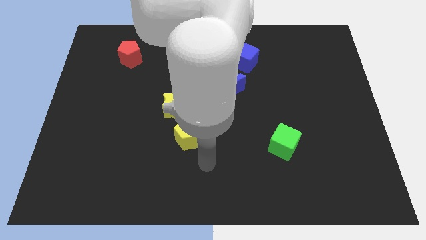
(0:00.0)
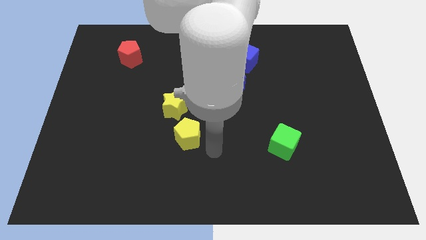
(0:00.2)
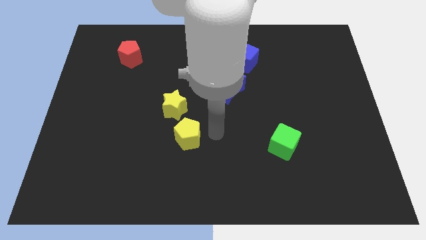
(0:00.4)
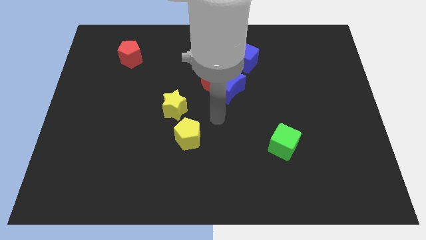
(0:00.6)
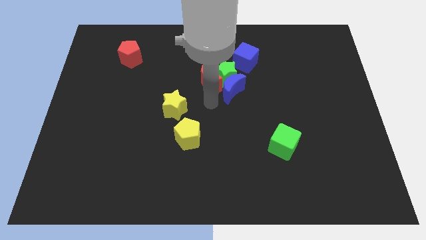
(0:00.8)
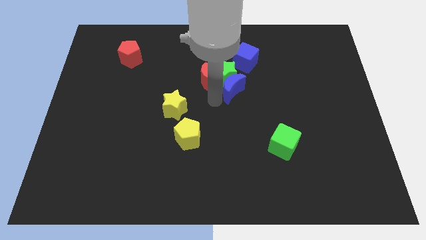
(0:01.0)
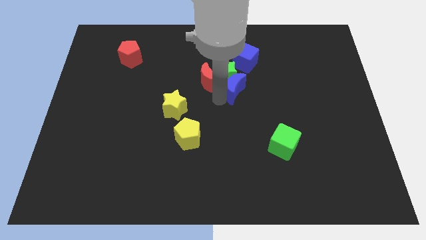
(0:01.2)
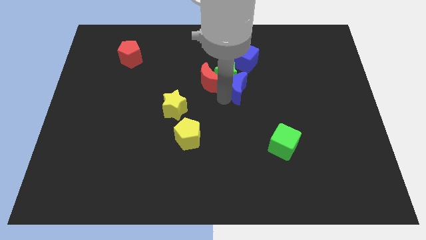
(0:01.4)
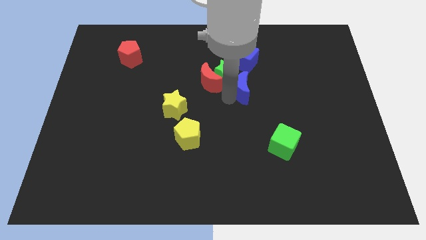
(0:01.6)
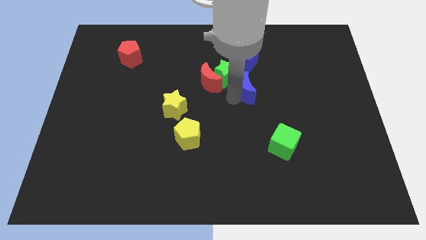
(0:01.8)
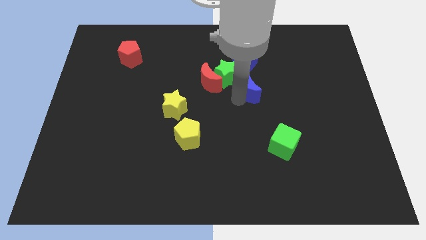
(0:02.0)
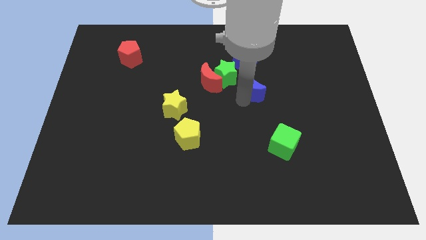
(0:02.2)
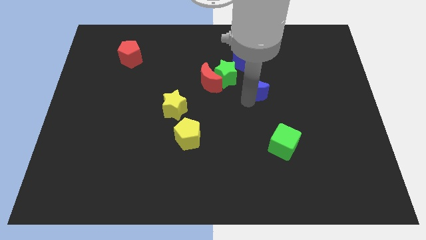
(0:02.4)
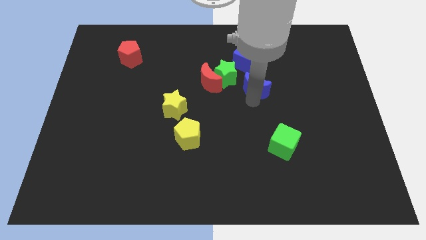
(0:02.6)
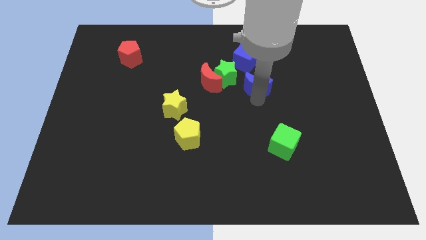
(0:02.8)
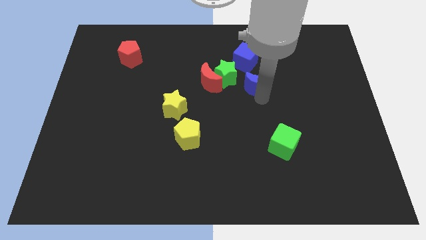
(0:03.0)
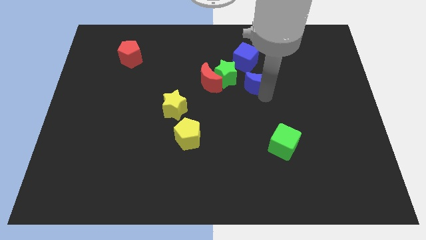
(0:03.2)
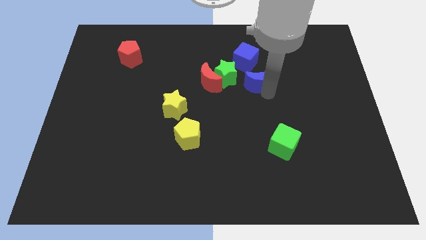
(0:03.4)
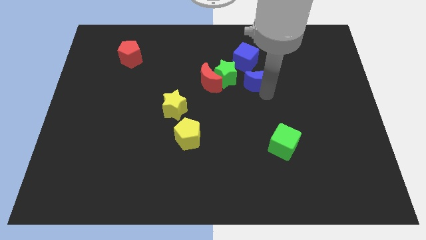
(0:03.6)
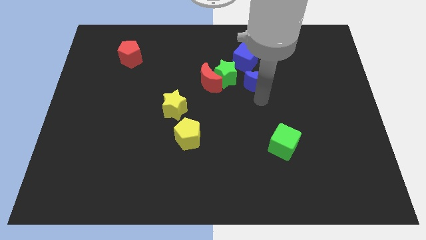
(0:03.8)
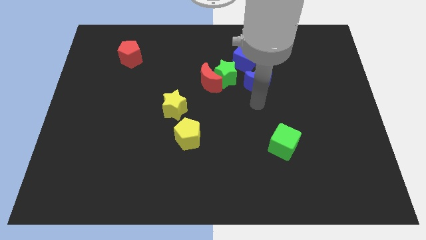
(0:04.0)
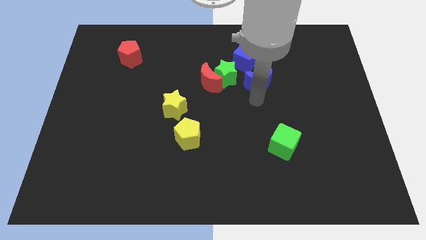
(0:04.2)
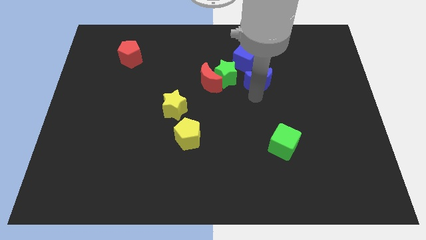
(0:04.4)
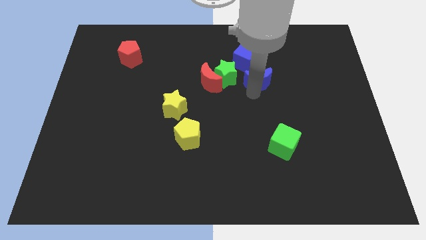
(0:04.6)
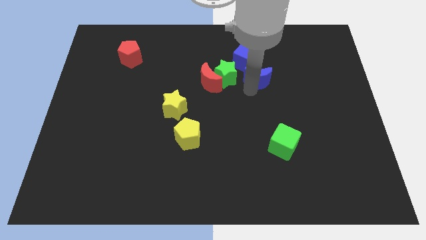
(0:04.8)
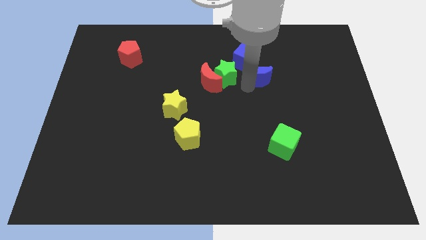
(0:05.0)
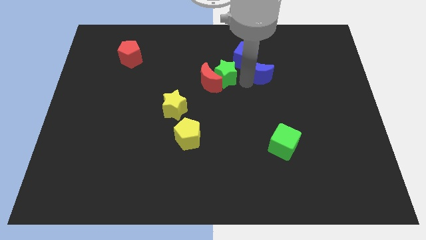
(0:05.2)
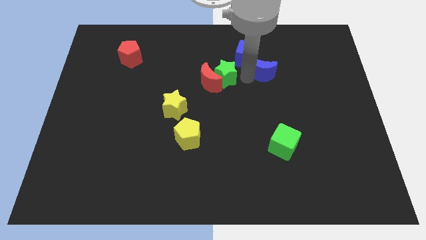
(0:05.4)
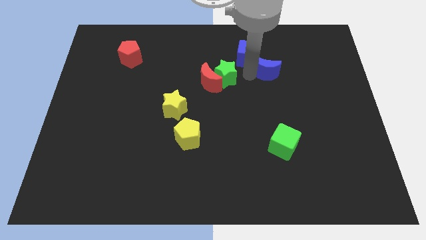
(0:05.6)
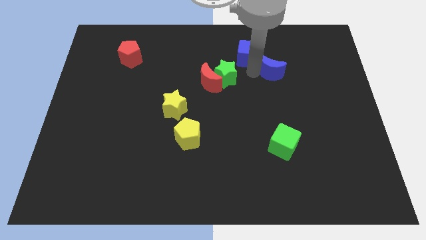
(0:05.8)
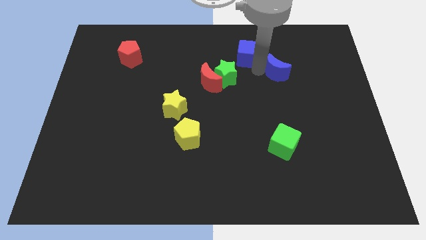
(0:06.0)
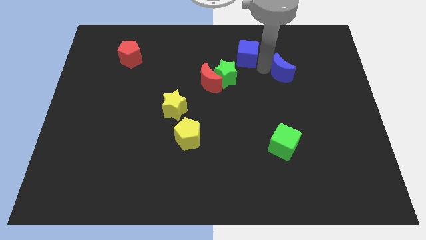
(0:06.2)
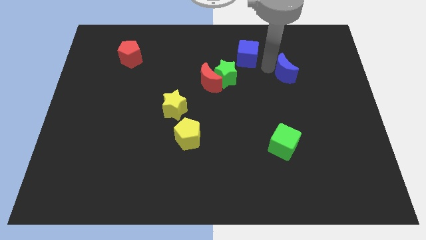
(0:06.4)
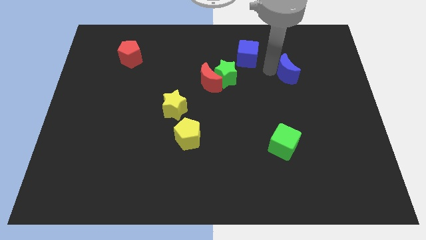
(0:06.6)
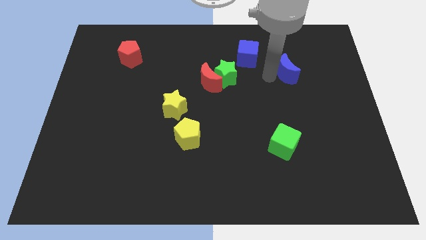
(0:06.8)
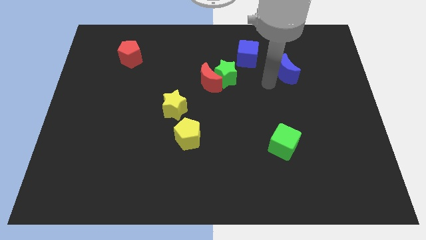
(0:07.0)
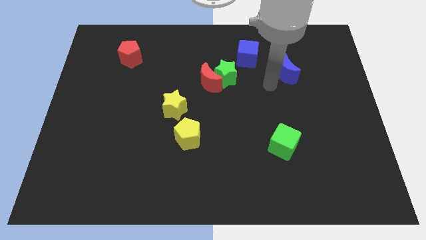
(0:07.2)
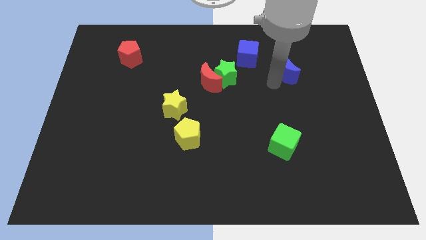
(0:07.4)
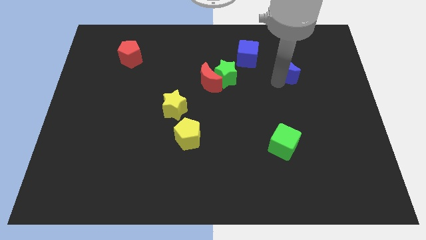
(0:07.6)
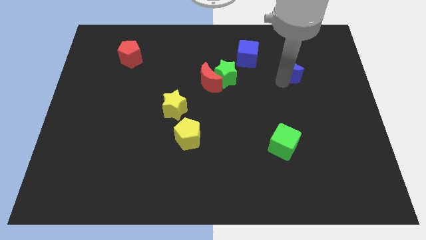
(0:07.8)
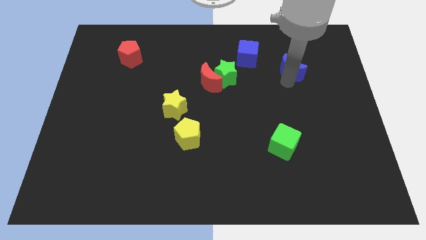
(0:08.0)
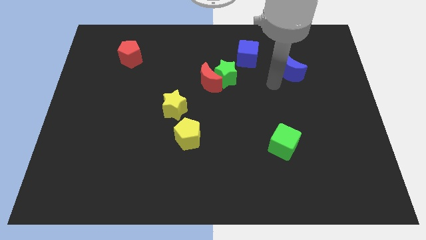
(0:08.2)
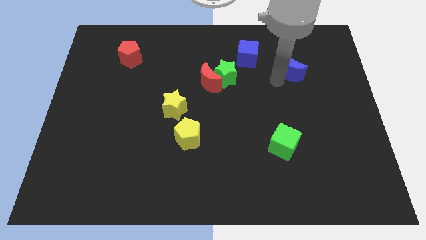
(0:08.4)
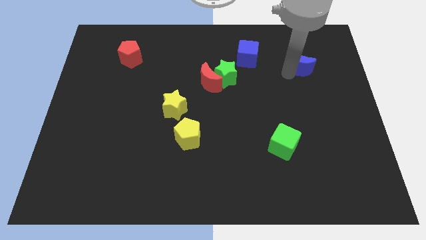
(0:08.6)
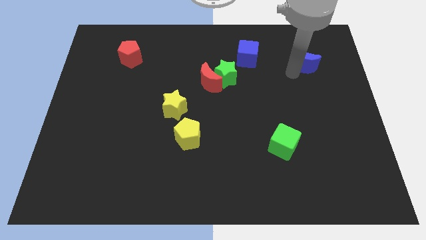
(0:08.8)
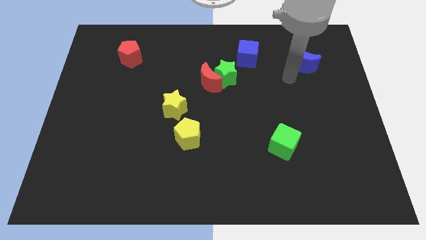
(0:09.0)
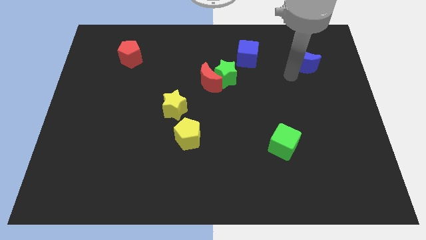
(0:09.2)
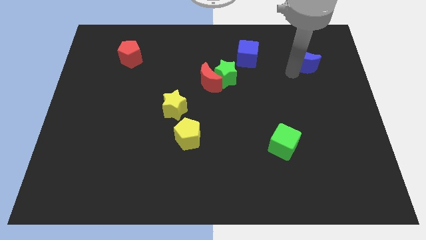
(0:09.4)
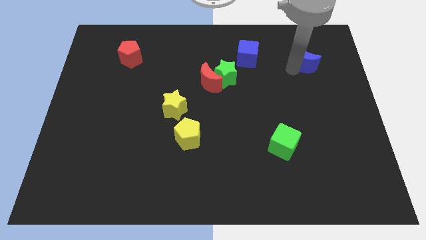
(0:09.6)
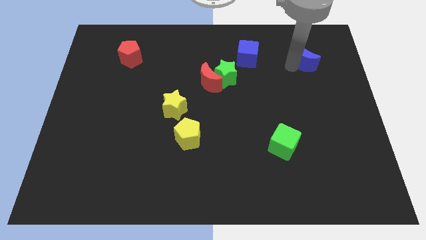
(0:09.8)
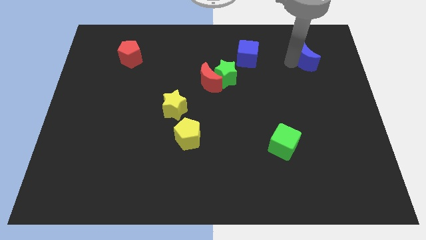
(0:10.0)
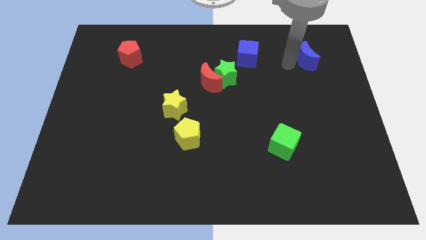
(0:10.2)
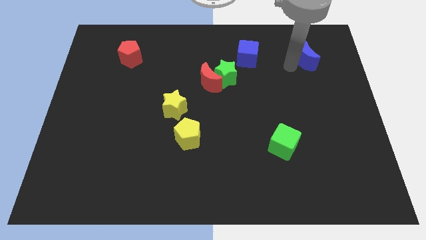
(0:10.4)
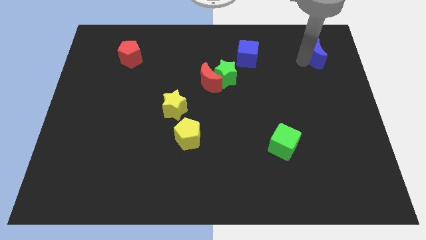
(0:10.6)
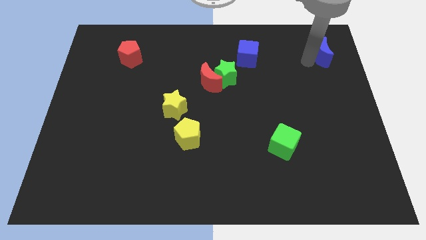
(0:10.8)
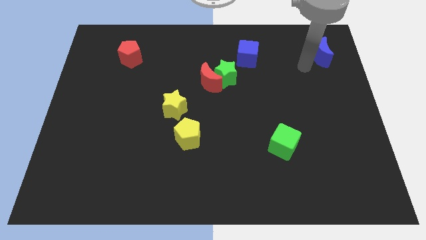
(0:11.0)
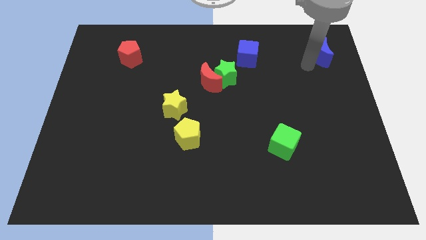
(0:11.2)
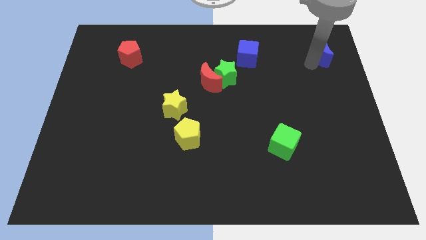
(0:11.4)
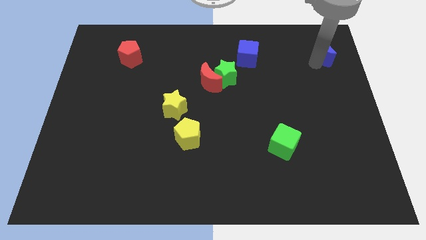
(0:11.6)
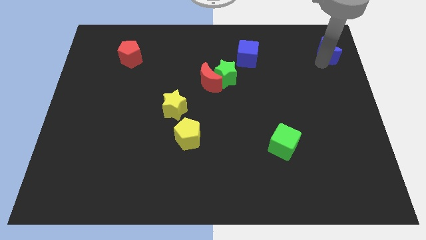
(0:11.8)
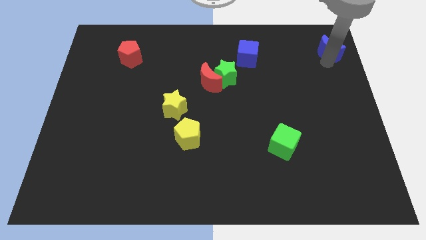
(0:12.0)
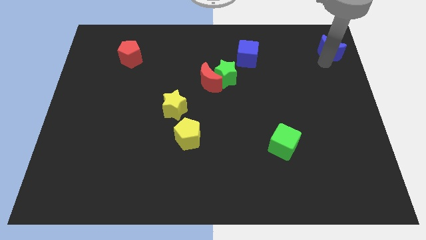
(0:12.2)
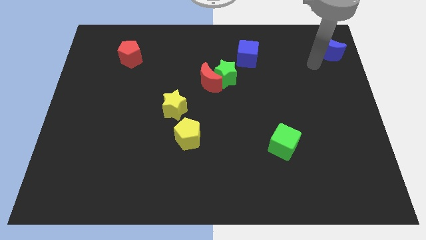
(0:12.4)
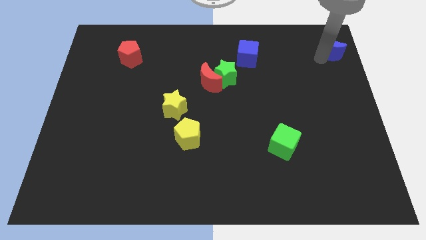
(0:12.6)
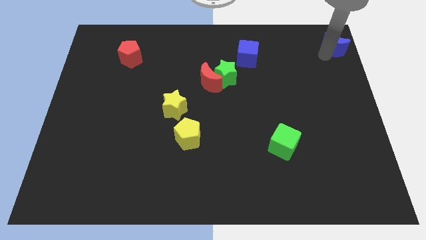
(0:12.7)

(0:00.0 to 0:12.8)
put the blue moon to the top right of the board

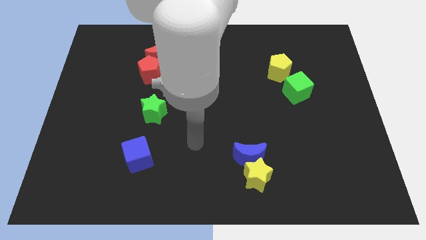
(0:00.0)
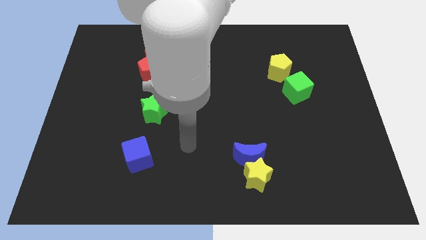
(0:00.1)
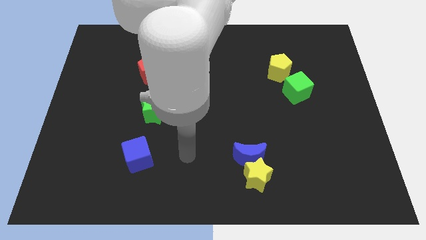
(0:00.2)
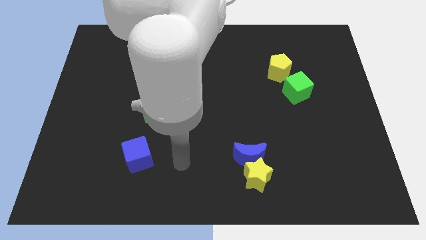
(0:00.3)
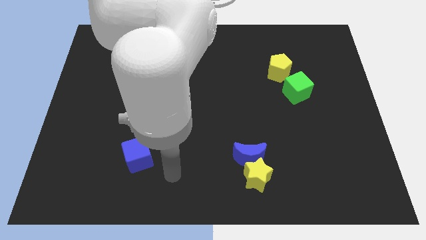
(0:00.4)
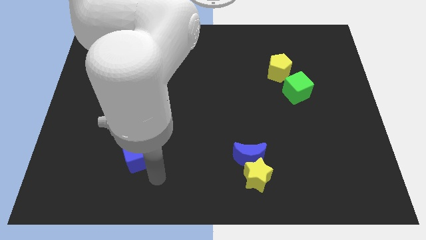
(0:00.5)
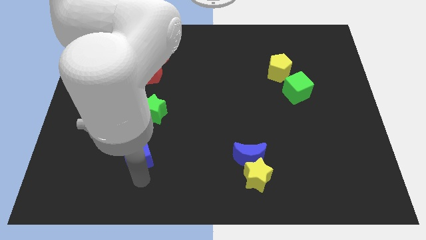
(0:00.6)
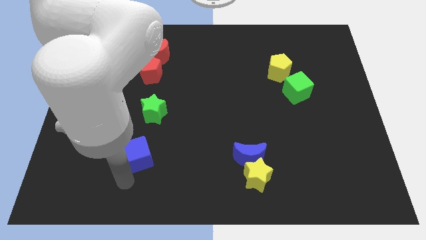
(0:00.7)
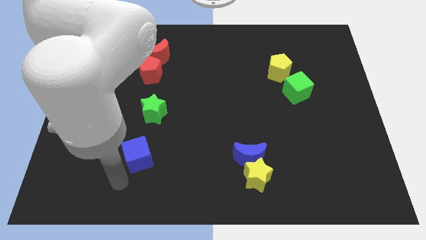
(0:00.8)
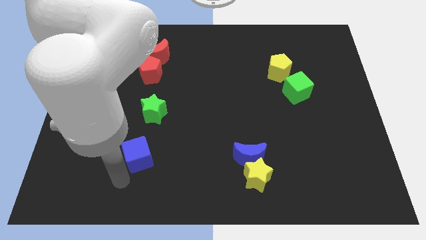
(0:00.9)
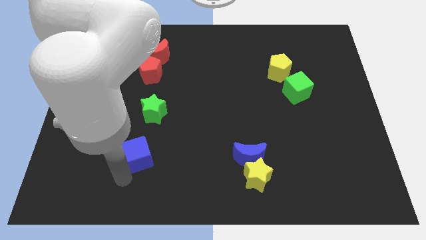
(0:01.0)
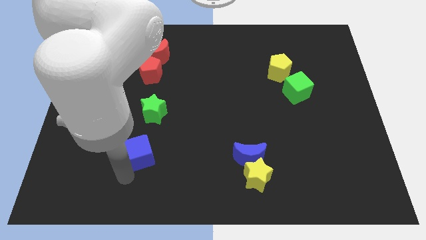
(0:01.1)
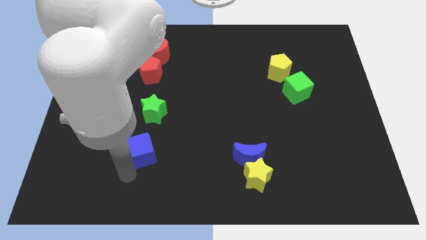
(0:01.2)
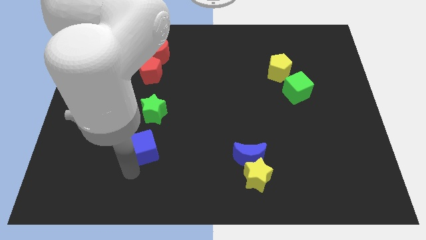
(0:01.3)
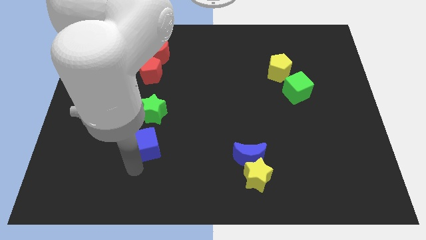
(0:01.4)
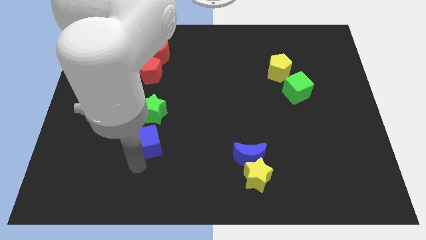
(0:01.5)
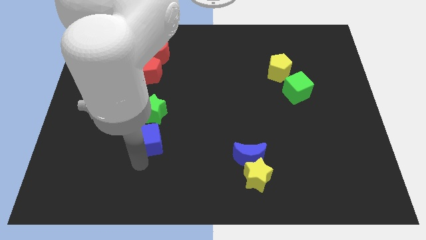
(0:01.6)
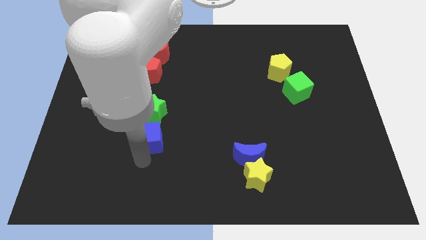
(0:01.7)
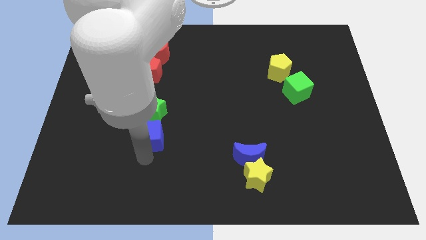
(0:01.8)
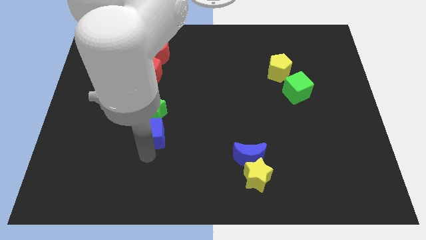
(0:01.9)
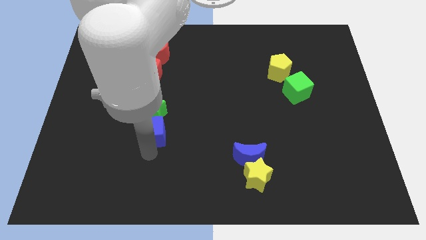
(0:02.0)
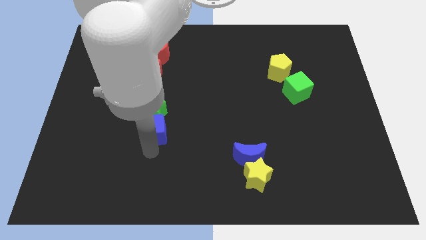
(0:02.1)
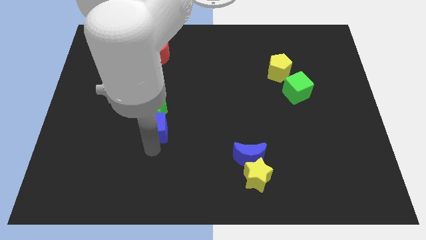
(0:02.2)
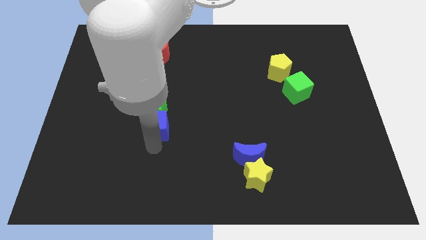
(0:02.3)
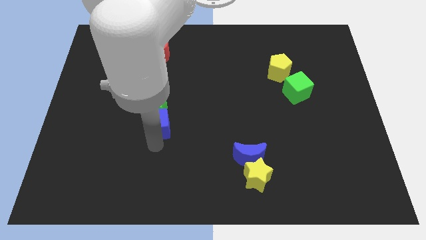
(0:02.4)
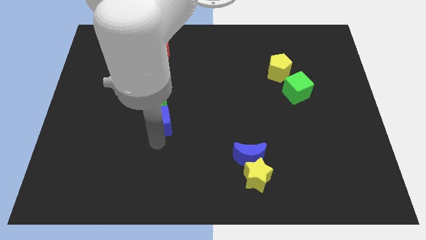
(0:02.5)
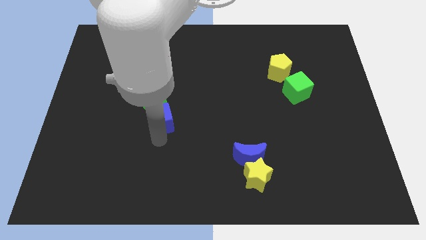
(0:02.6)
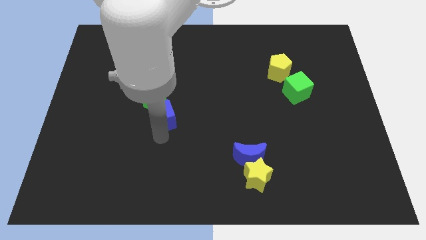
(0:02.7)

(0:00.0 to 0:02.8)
slide the blue cube to the center
